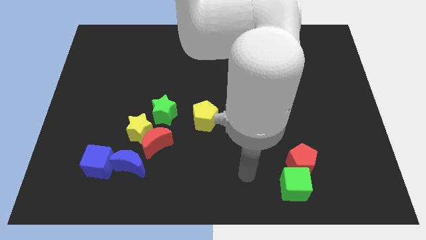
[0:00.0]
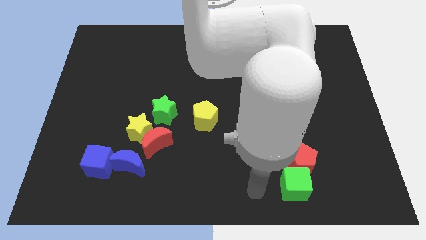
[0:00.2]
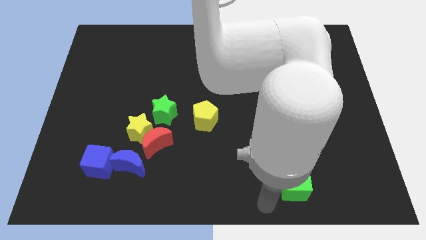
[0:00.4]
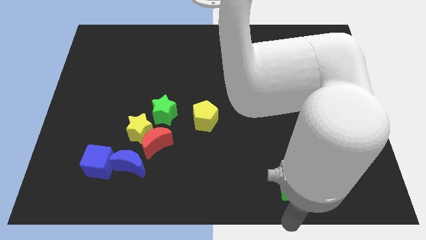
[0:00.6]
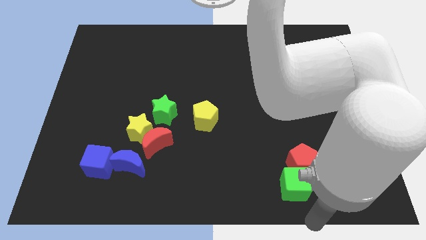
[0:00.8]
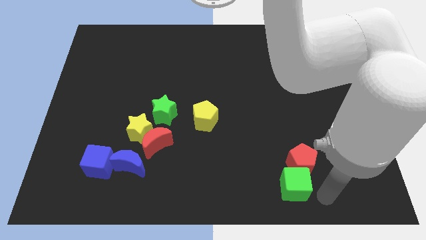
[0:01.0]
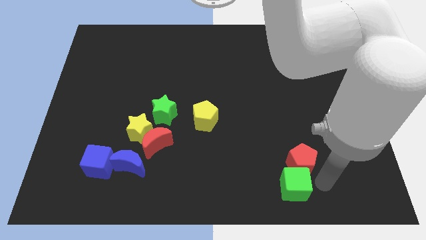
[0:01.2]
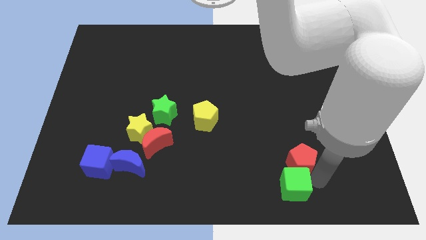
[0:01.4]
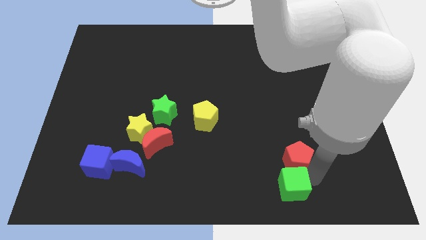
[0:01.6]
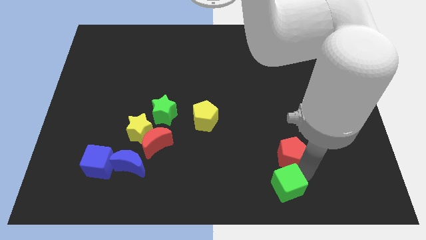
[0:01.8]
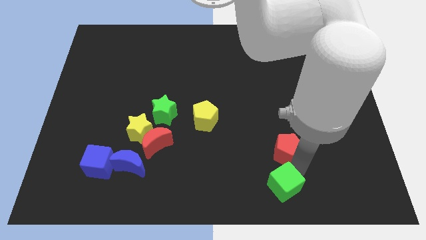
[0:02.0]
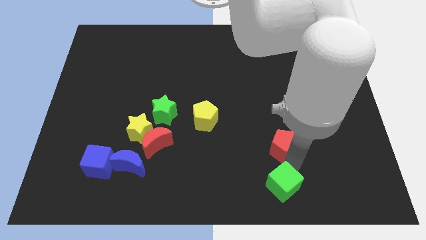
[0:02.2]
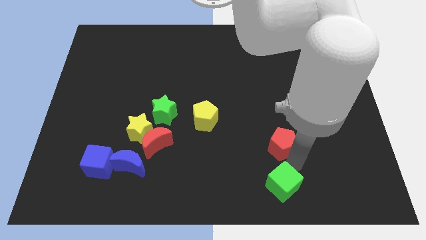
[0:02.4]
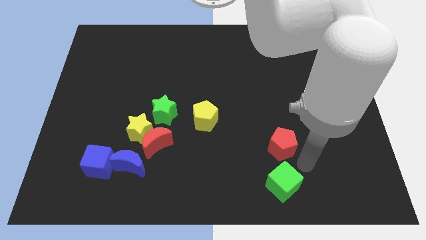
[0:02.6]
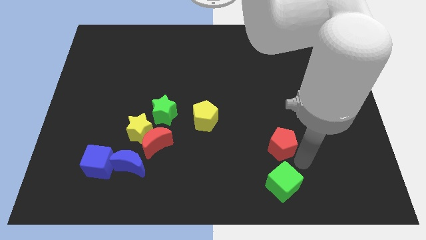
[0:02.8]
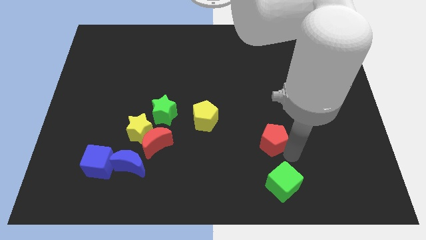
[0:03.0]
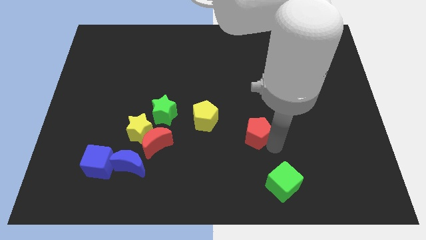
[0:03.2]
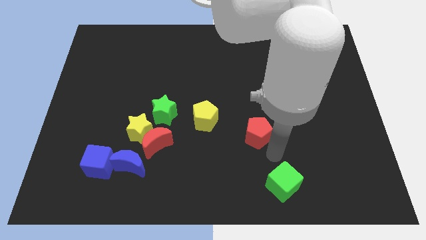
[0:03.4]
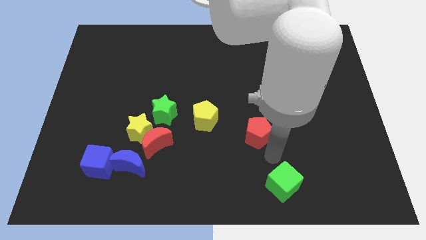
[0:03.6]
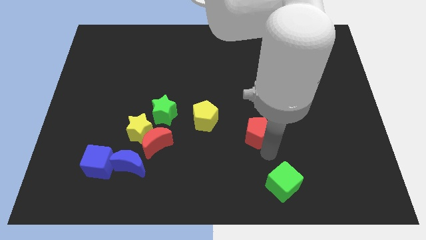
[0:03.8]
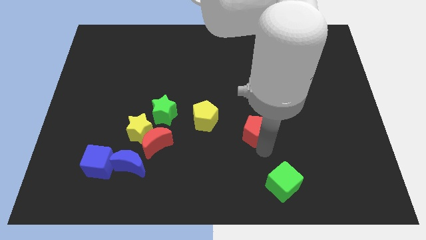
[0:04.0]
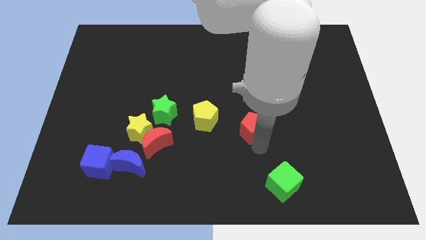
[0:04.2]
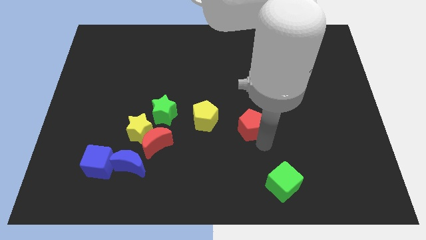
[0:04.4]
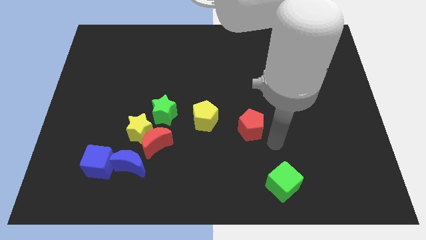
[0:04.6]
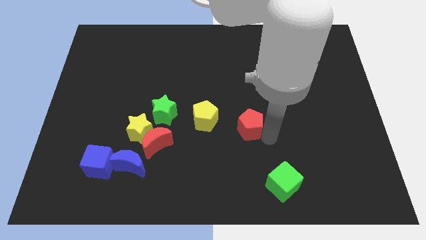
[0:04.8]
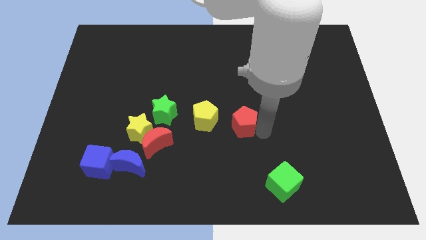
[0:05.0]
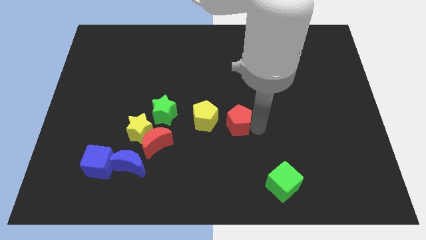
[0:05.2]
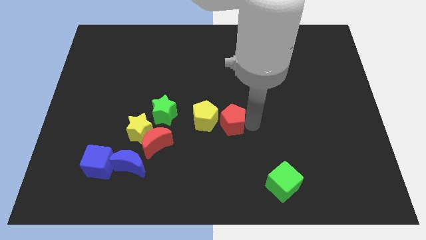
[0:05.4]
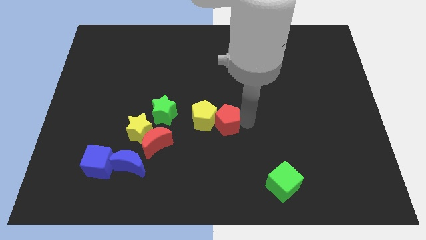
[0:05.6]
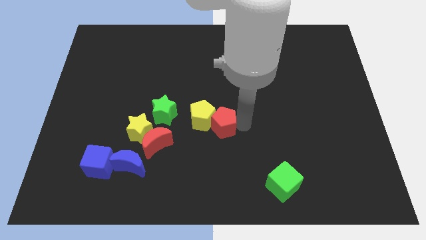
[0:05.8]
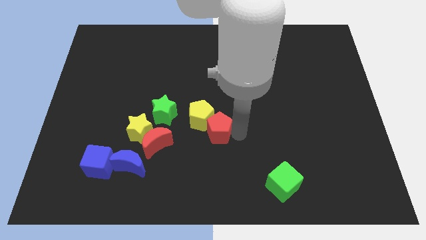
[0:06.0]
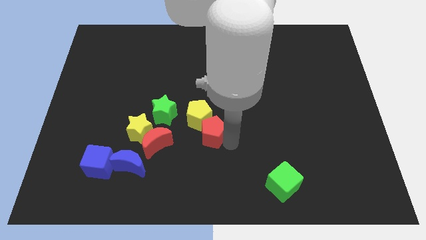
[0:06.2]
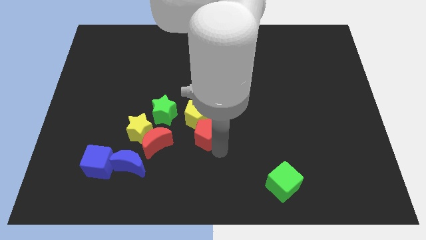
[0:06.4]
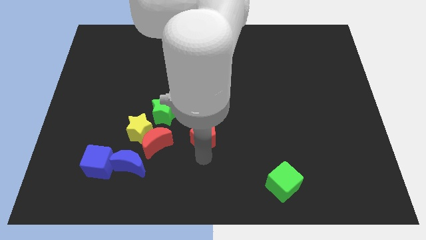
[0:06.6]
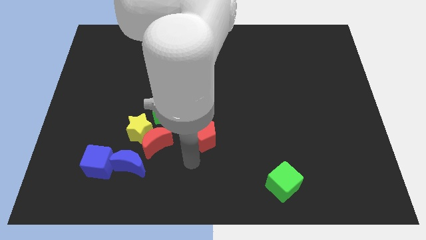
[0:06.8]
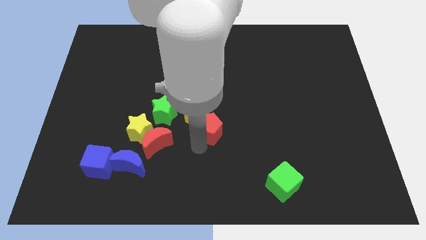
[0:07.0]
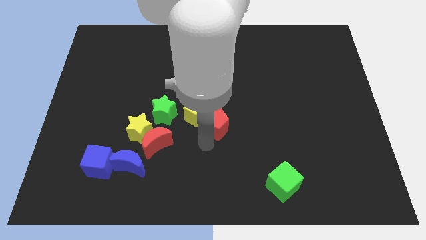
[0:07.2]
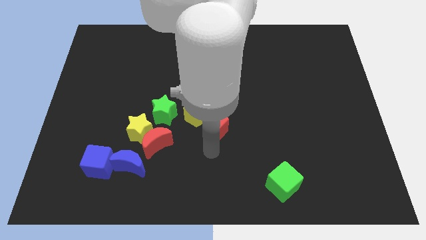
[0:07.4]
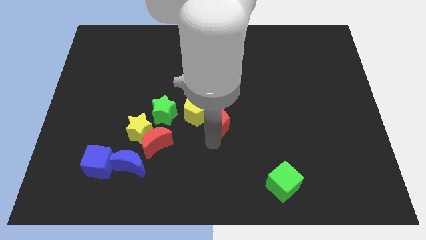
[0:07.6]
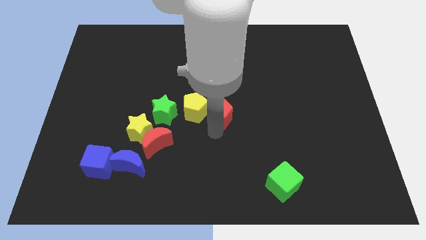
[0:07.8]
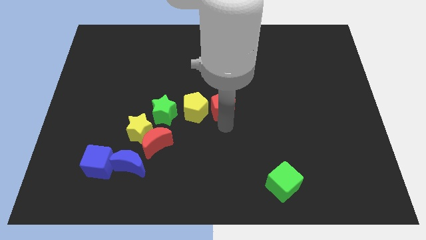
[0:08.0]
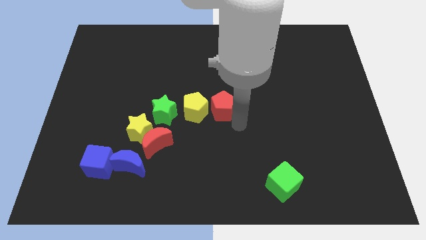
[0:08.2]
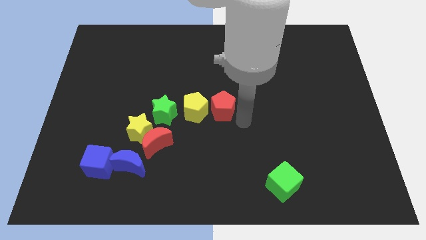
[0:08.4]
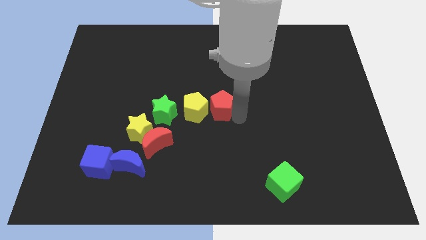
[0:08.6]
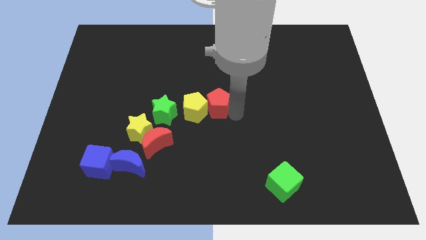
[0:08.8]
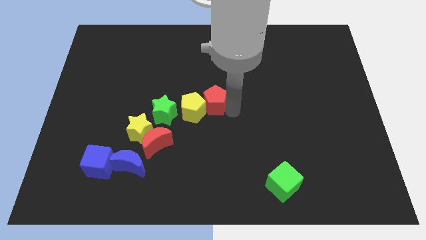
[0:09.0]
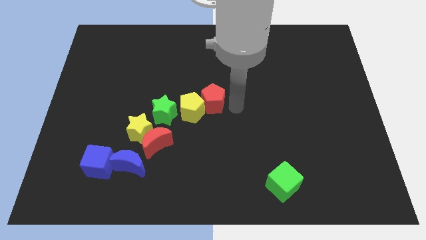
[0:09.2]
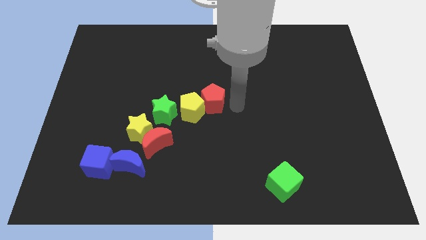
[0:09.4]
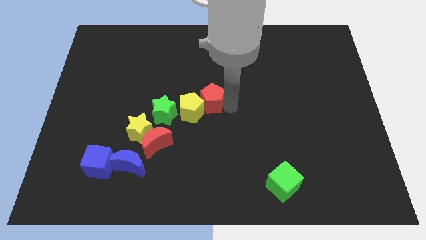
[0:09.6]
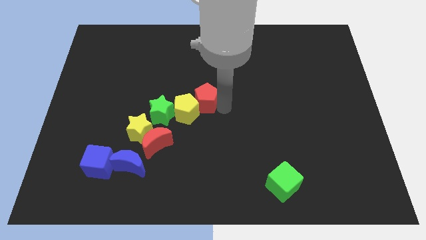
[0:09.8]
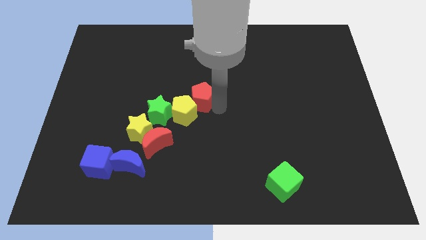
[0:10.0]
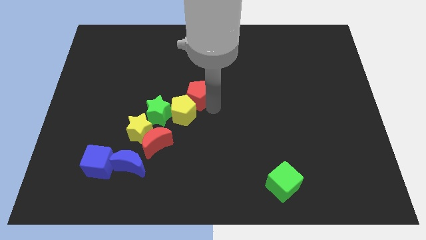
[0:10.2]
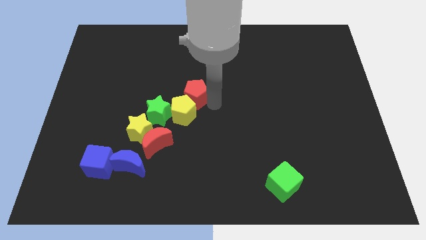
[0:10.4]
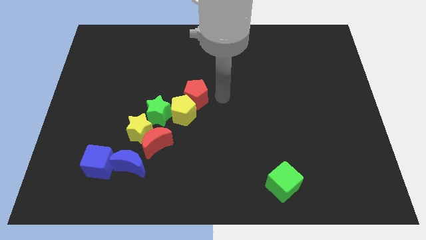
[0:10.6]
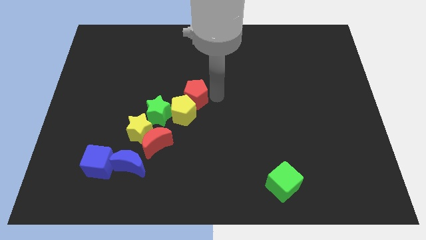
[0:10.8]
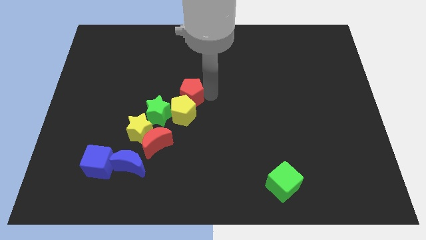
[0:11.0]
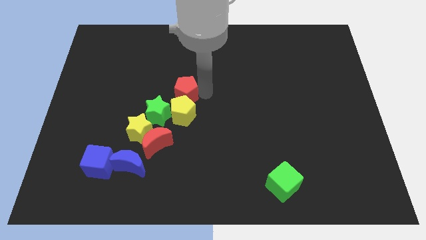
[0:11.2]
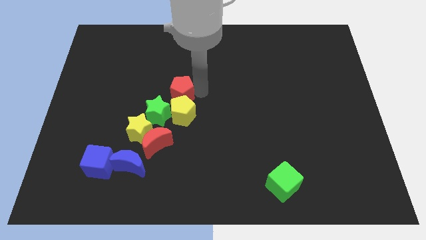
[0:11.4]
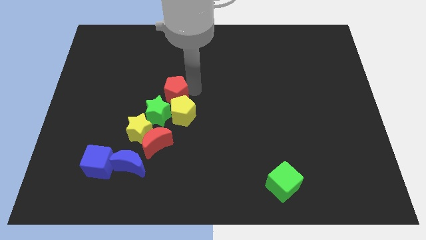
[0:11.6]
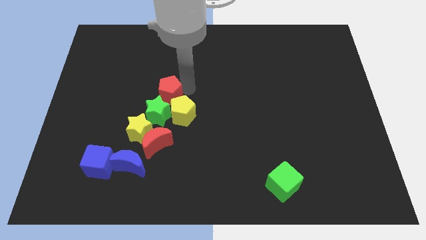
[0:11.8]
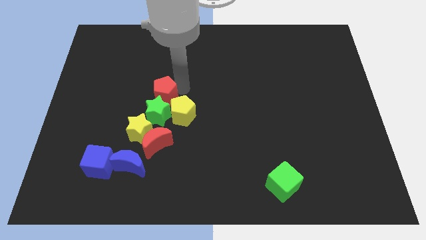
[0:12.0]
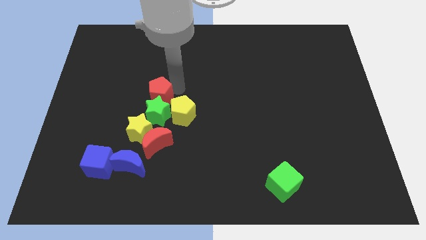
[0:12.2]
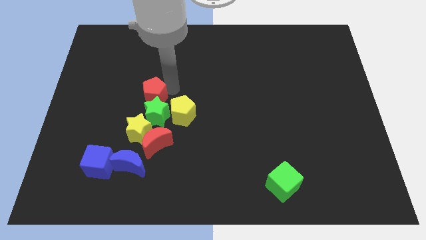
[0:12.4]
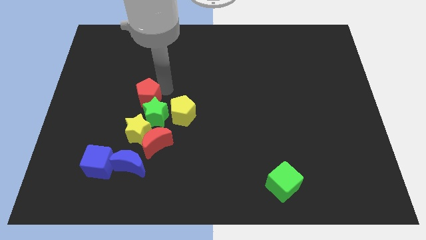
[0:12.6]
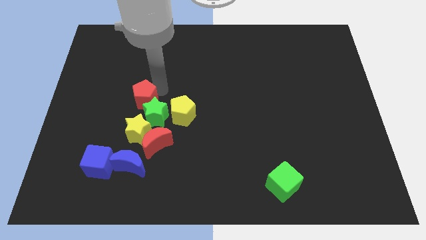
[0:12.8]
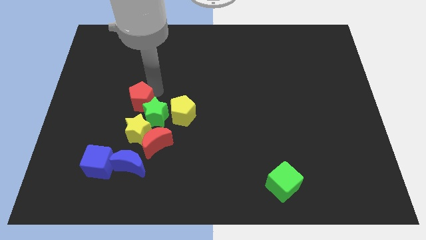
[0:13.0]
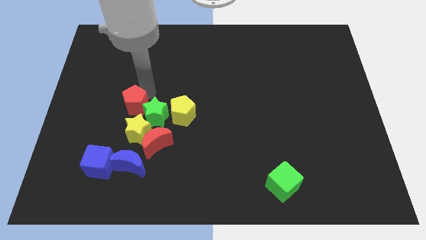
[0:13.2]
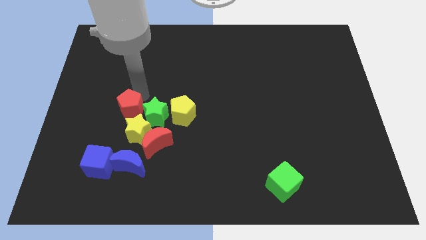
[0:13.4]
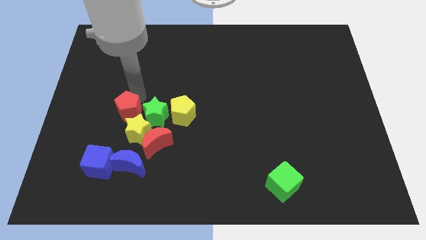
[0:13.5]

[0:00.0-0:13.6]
move the red pentagon to the top side of the blue cube
